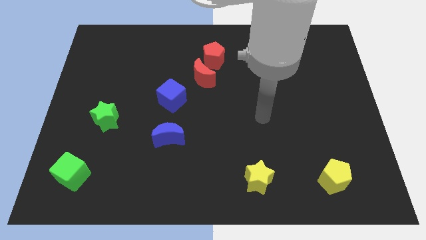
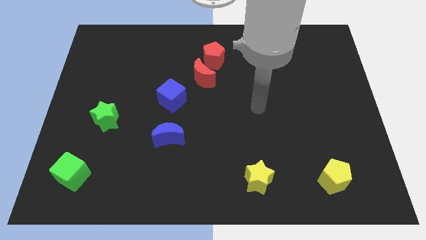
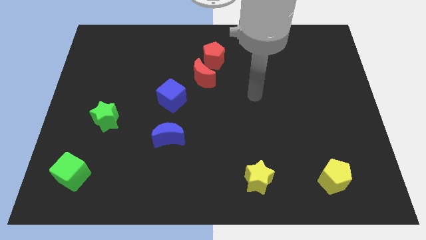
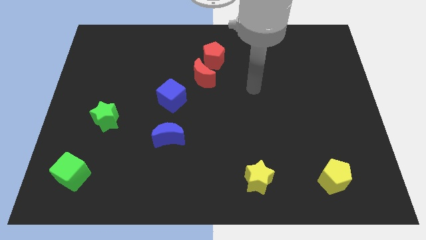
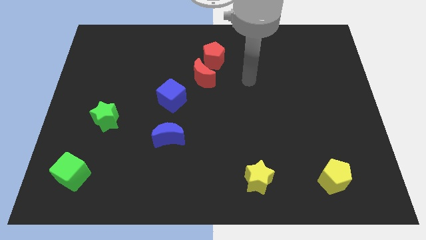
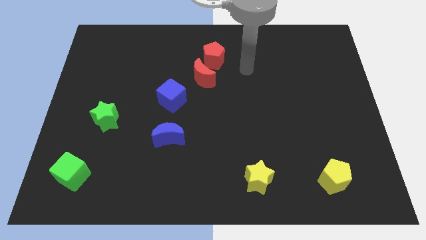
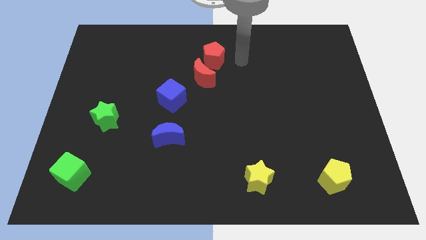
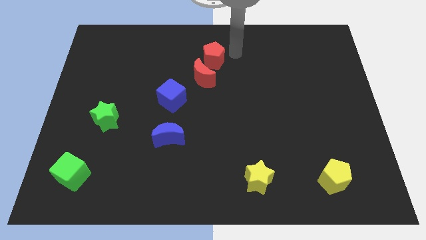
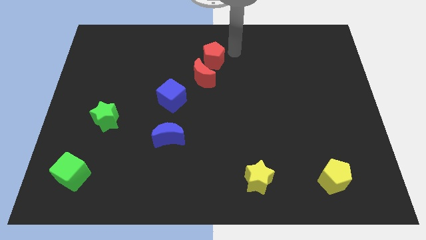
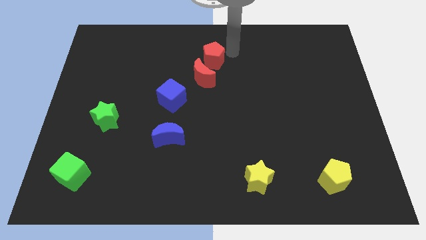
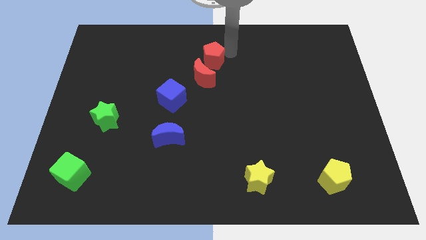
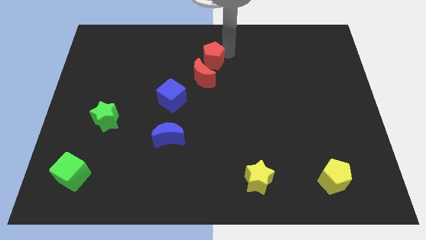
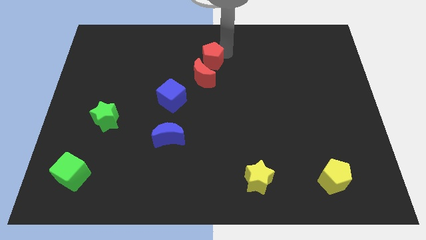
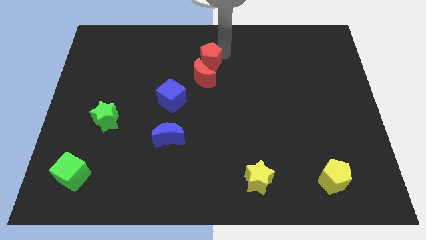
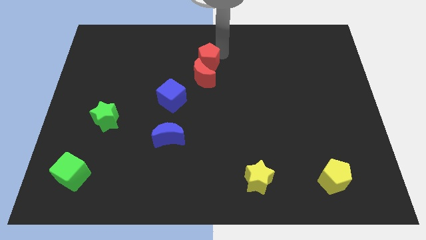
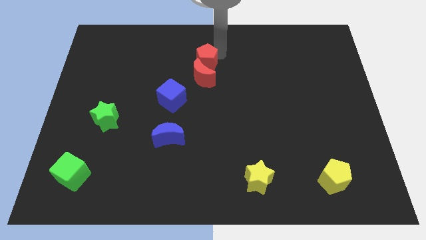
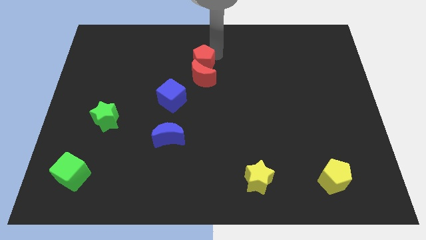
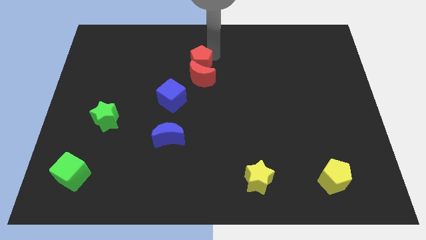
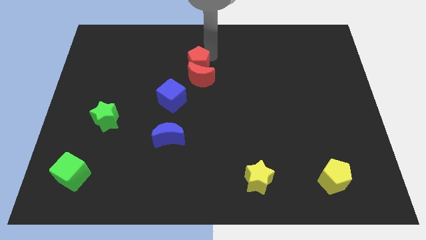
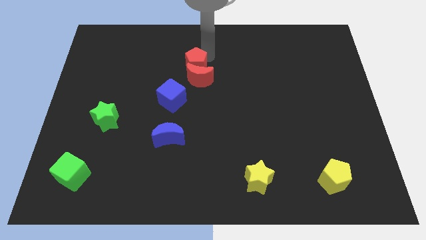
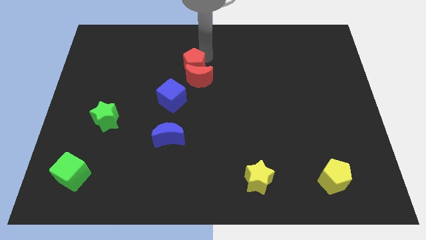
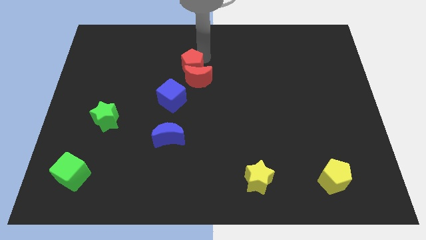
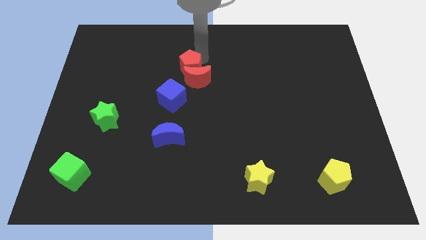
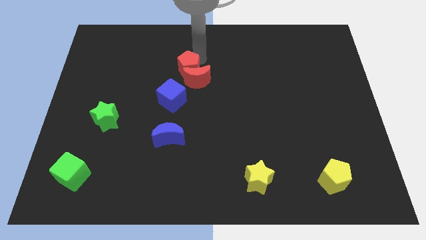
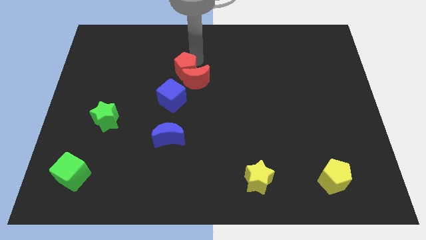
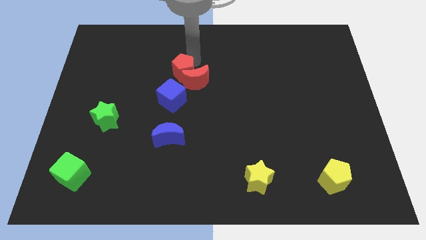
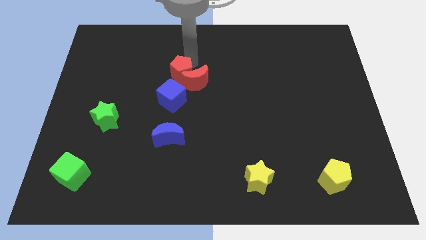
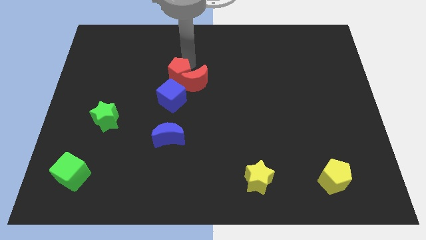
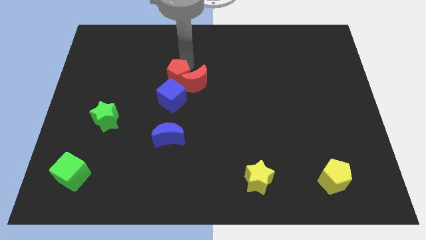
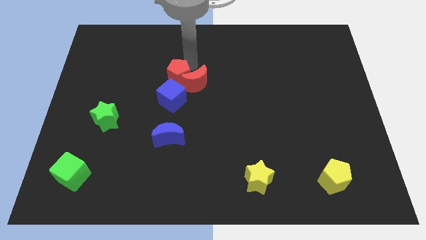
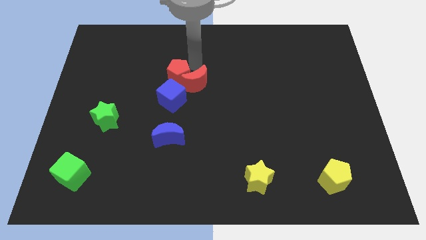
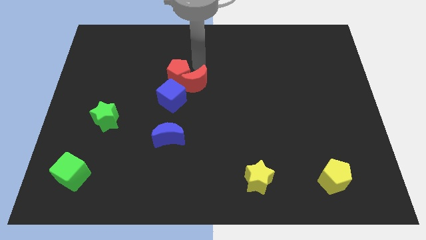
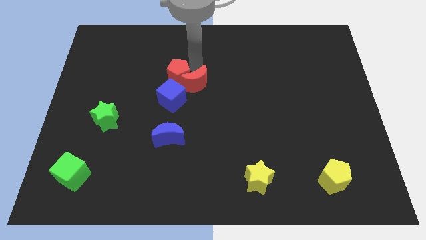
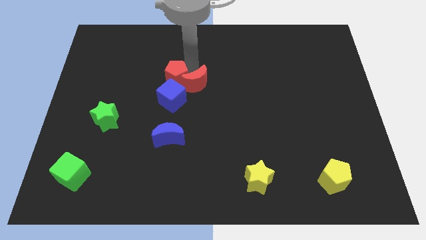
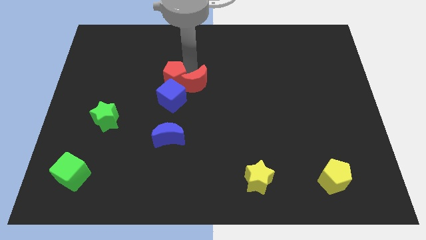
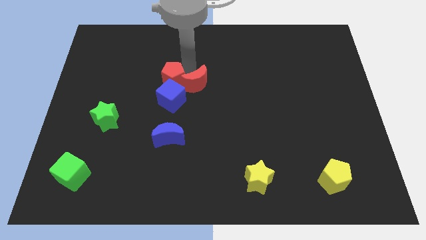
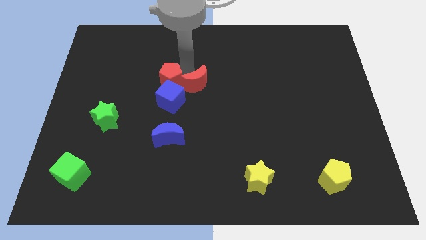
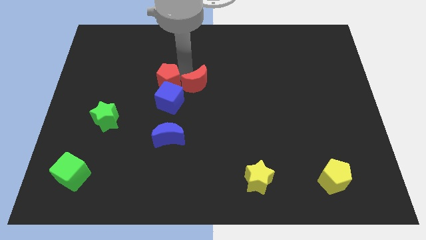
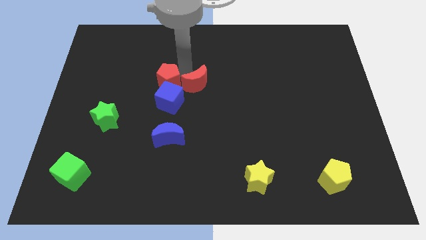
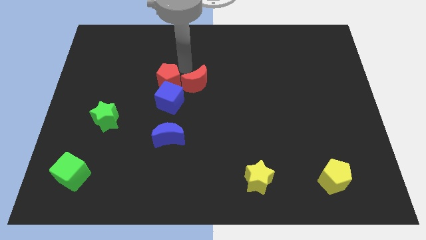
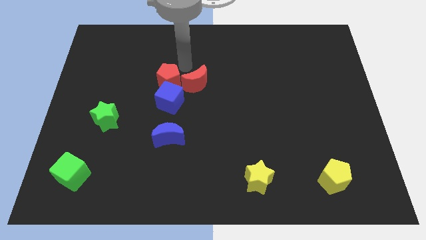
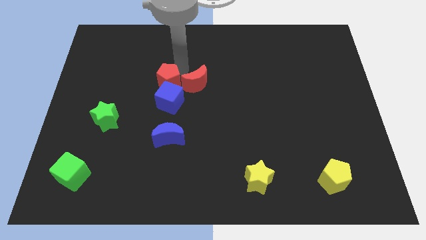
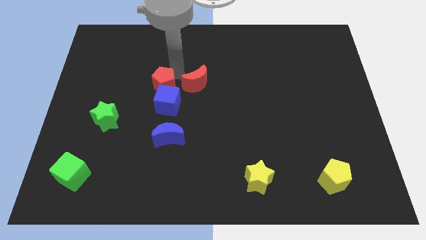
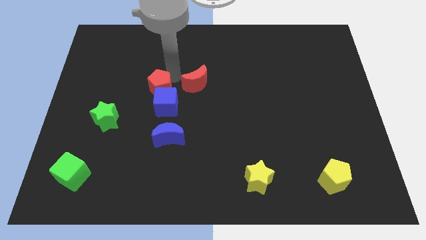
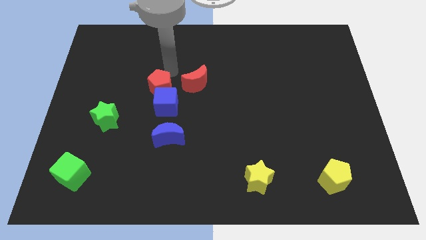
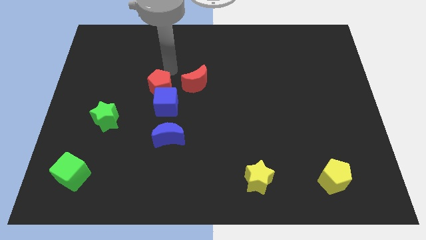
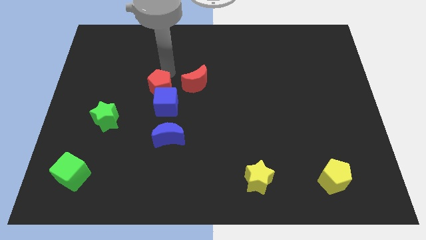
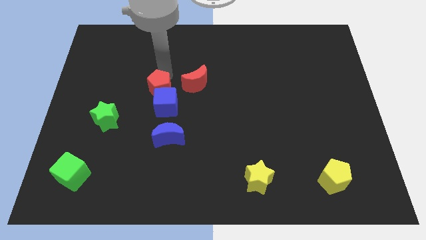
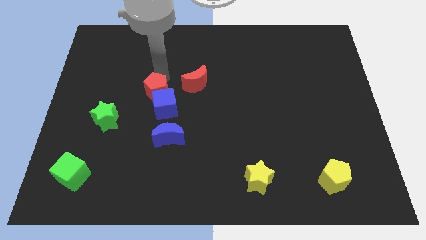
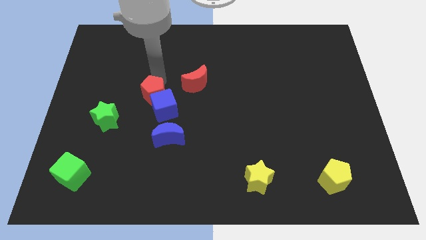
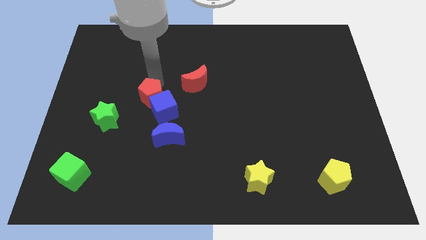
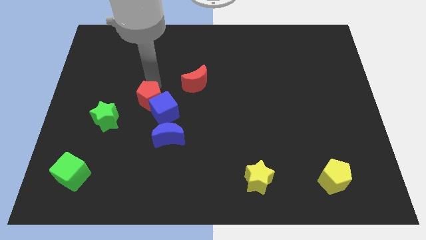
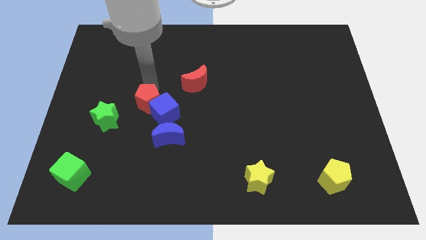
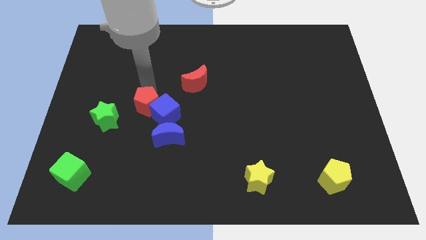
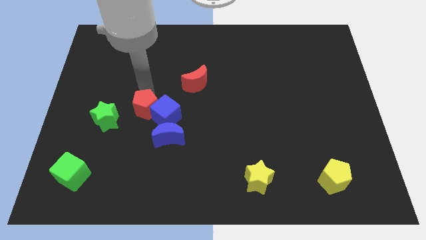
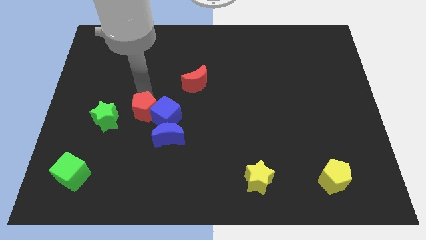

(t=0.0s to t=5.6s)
move the red pentagon diagonally down and to the left of the blue cube

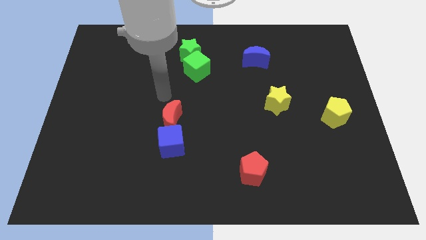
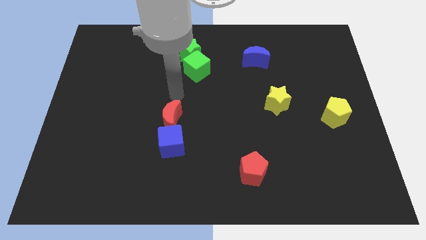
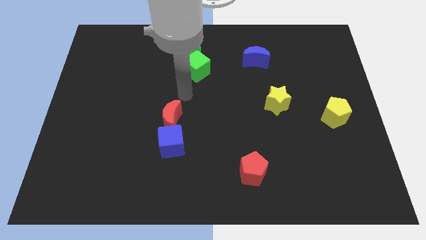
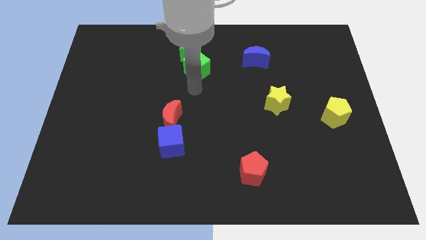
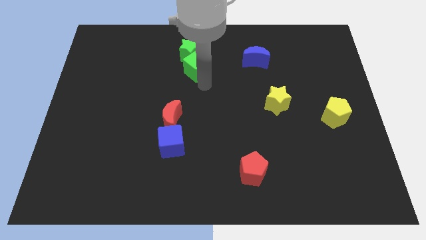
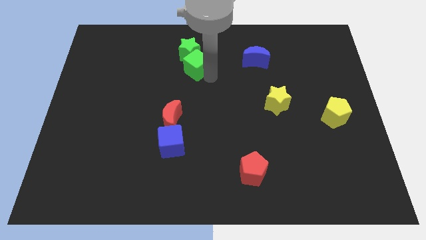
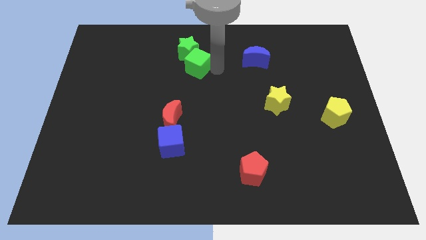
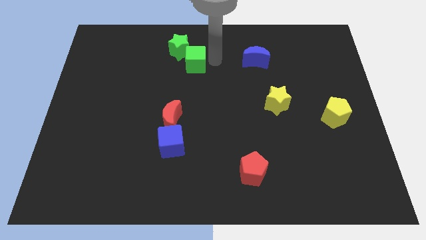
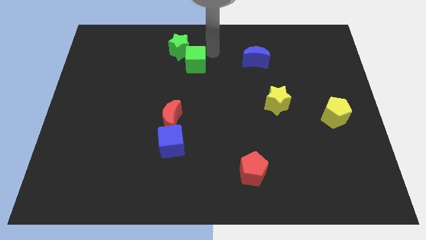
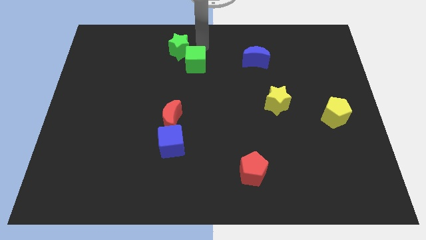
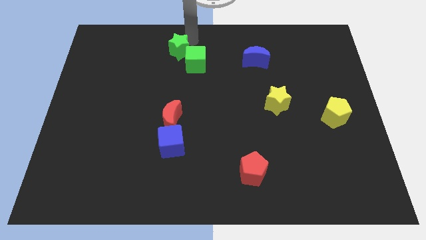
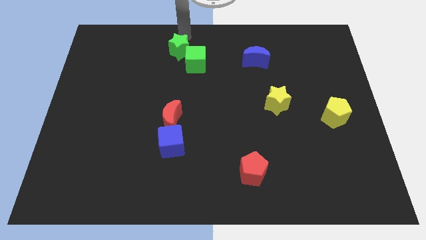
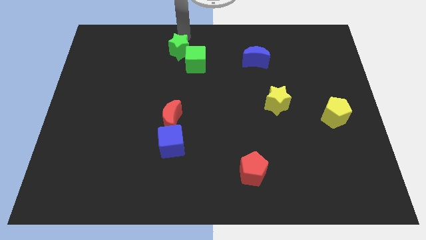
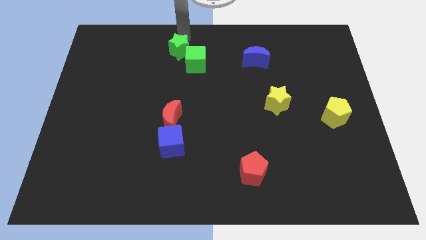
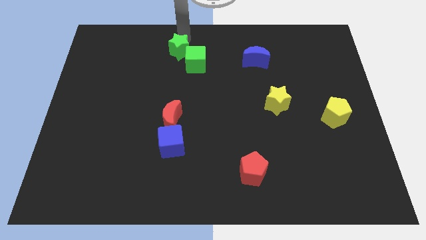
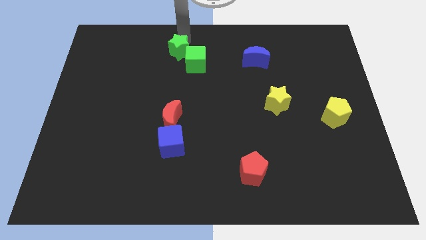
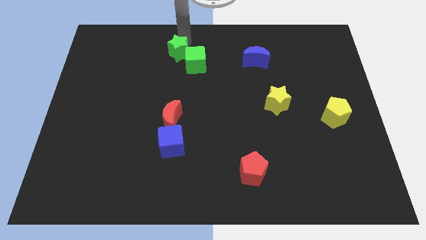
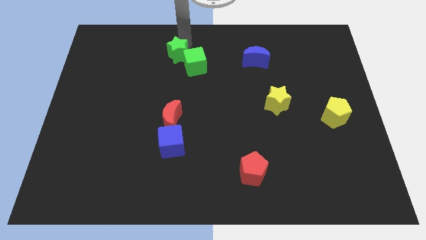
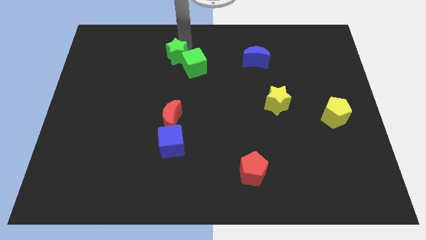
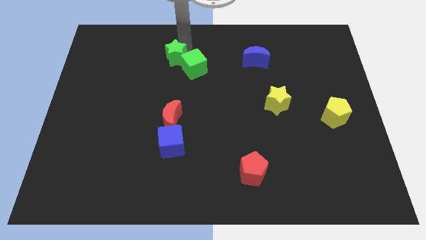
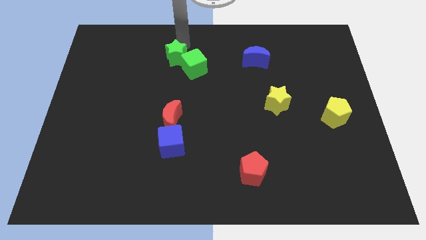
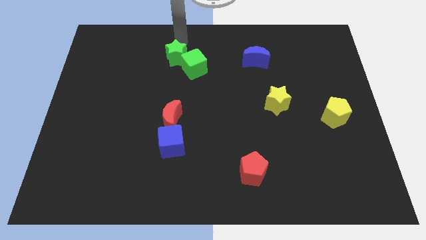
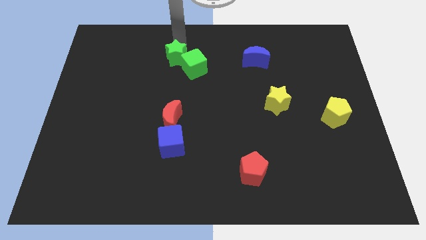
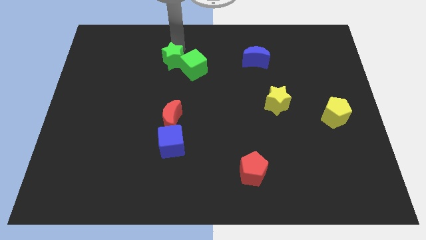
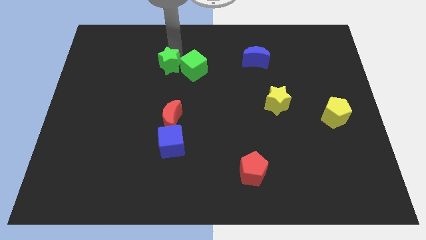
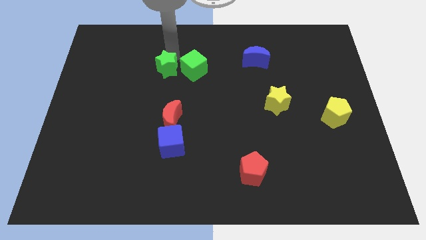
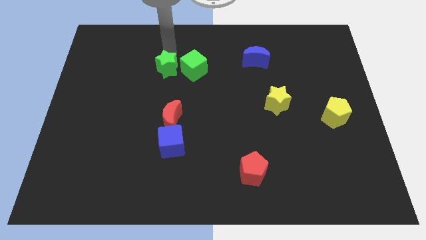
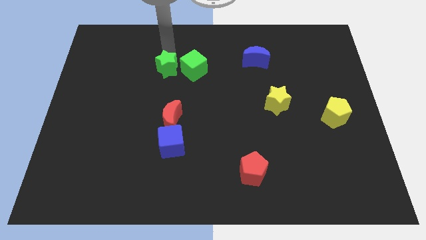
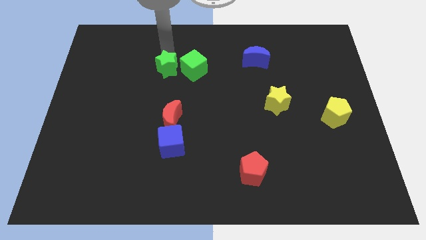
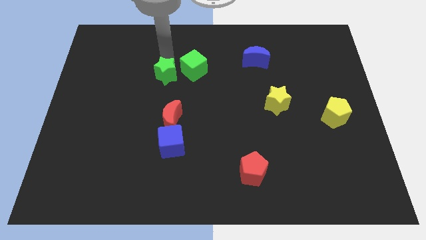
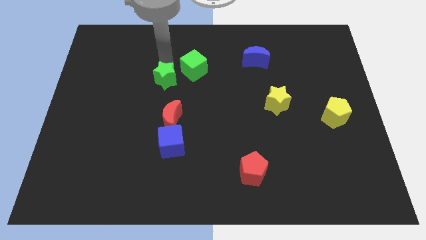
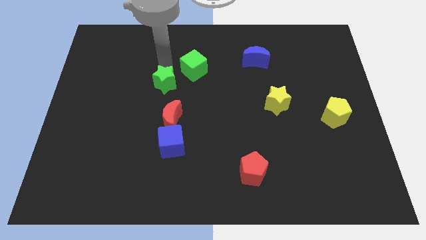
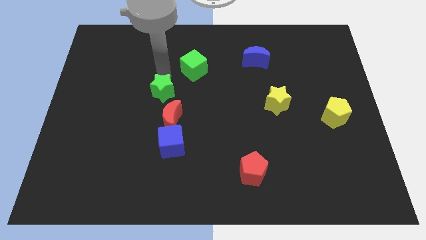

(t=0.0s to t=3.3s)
put the green star above the blue cube
